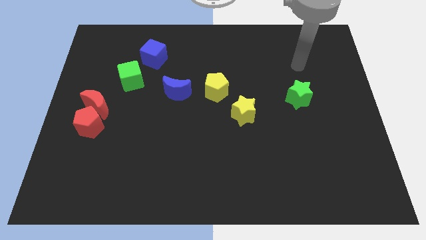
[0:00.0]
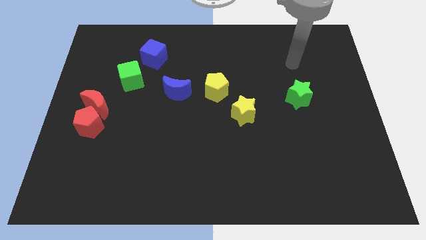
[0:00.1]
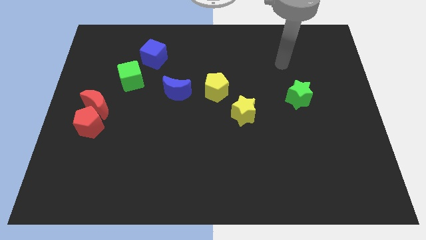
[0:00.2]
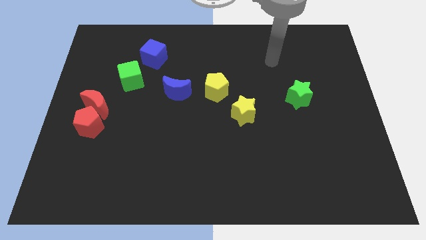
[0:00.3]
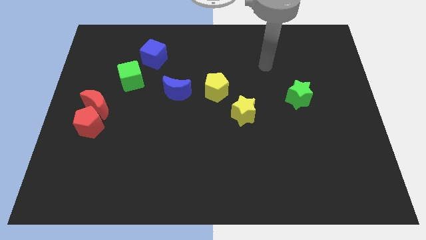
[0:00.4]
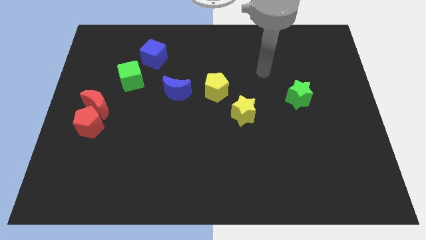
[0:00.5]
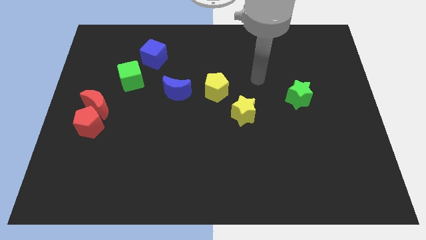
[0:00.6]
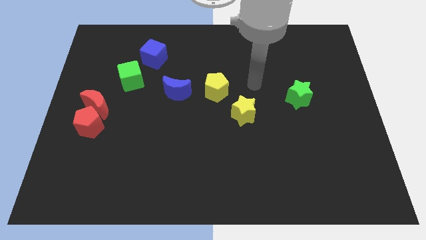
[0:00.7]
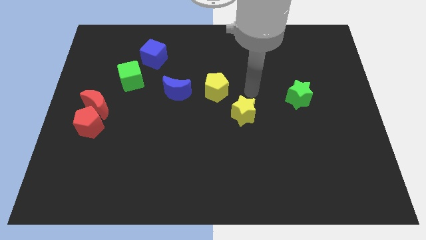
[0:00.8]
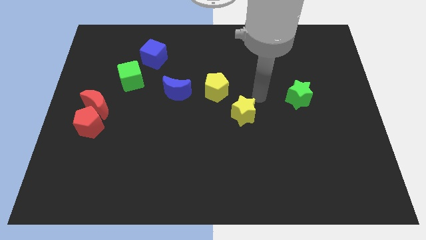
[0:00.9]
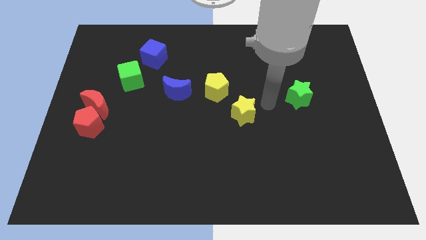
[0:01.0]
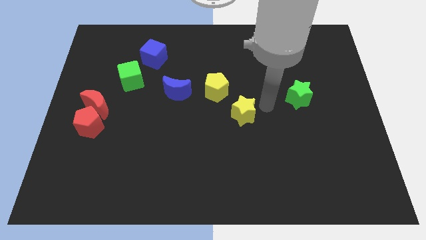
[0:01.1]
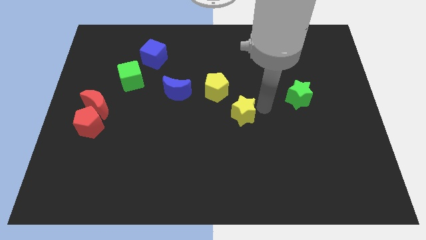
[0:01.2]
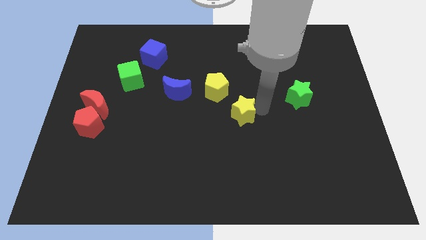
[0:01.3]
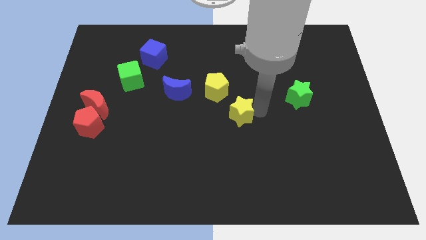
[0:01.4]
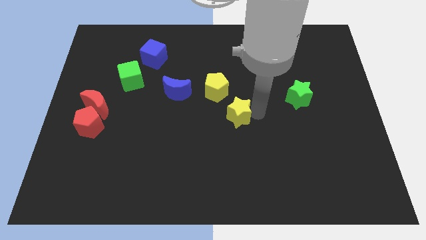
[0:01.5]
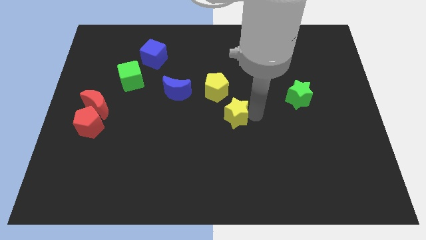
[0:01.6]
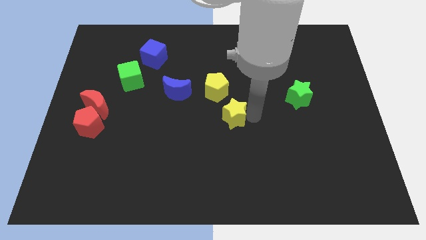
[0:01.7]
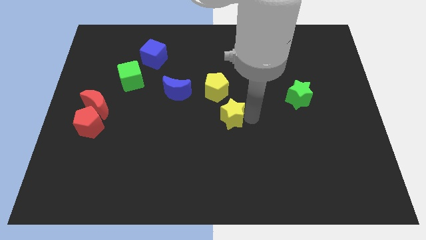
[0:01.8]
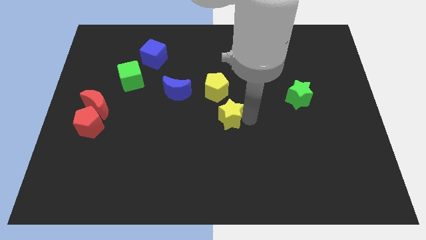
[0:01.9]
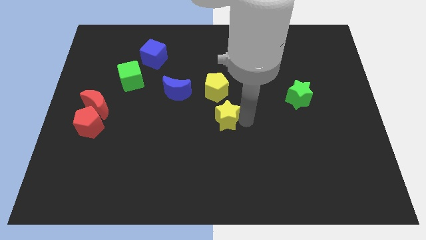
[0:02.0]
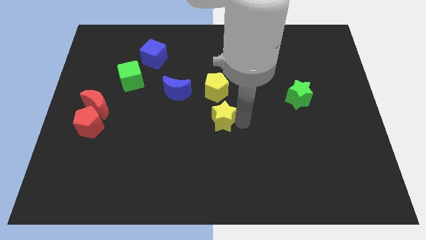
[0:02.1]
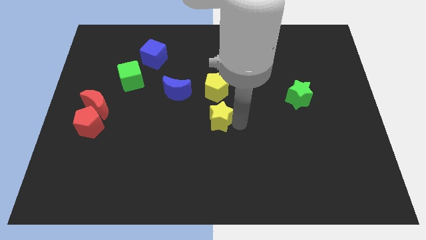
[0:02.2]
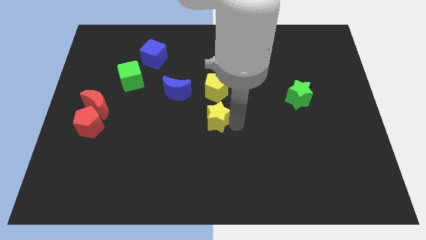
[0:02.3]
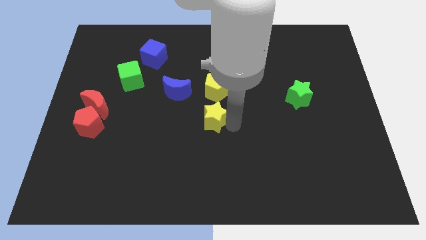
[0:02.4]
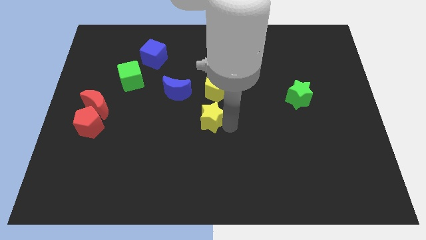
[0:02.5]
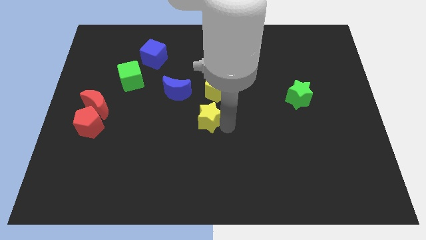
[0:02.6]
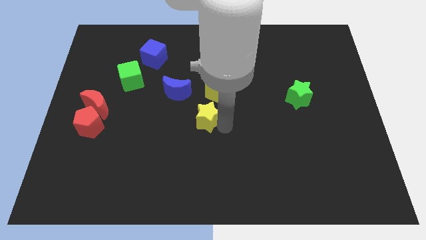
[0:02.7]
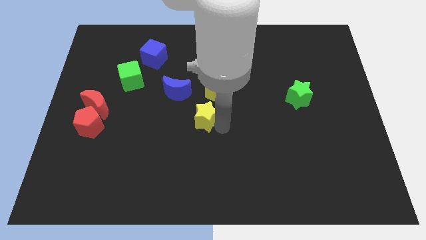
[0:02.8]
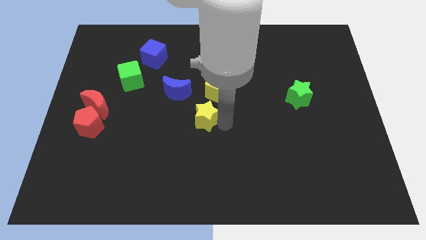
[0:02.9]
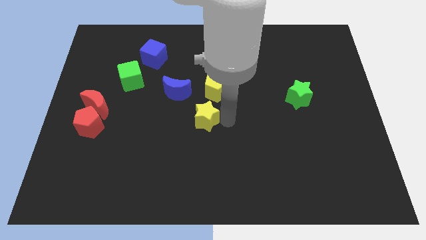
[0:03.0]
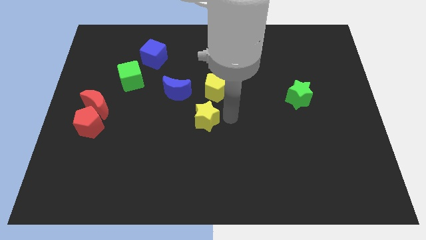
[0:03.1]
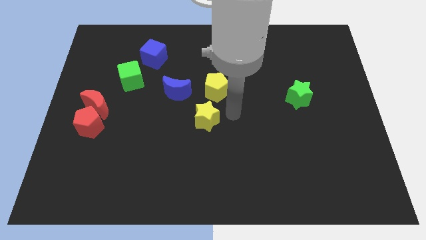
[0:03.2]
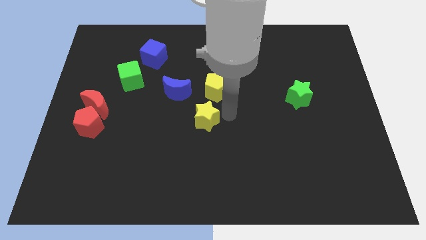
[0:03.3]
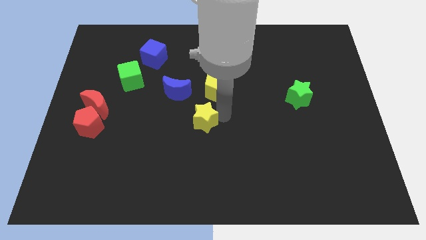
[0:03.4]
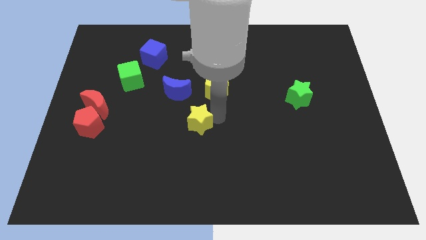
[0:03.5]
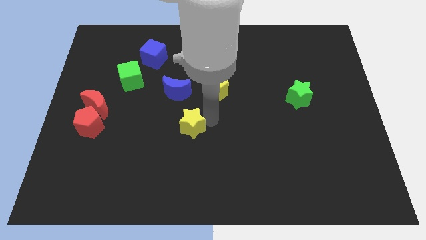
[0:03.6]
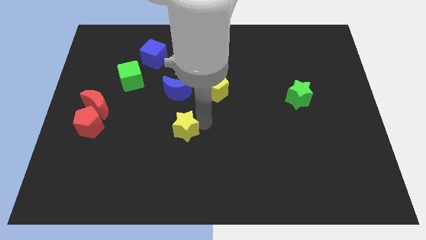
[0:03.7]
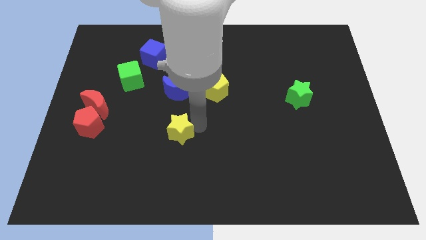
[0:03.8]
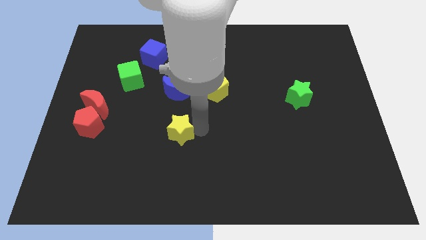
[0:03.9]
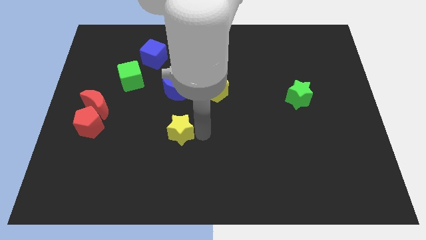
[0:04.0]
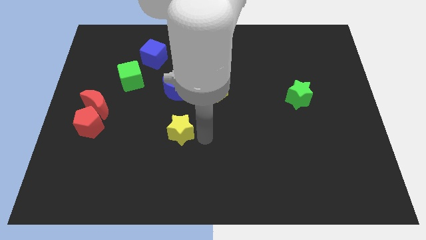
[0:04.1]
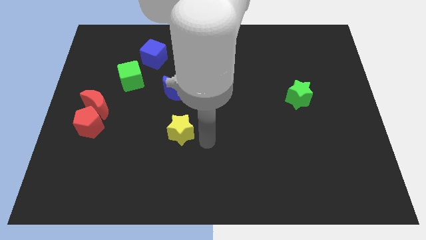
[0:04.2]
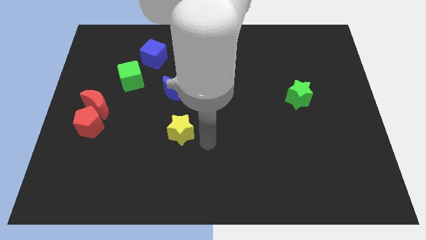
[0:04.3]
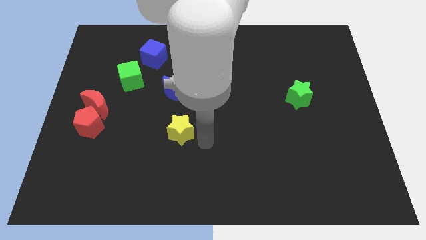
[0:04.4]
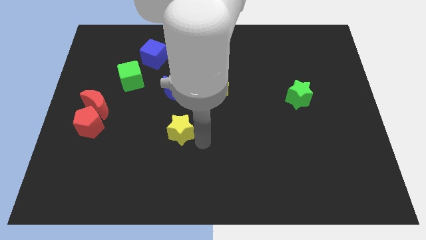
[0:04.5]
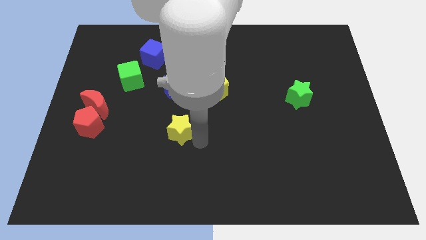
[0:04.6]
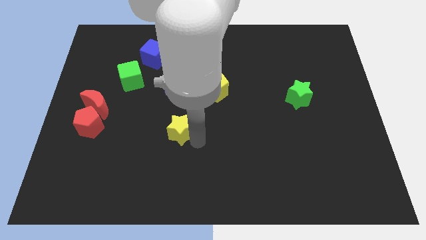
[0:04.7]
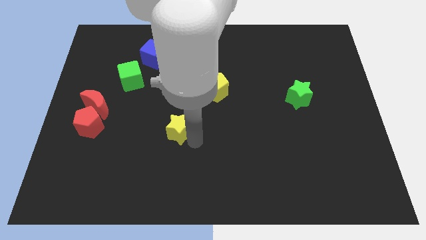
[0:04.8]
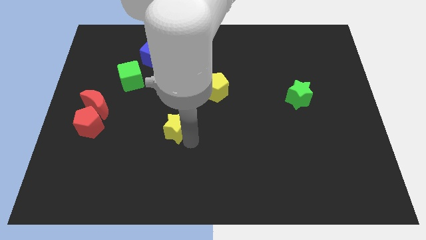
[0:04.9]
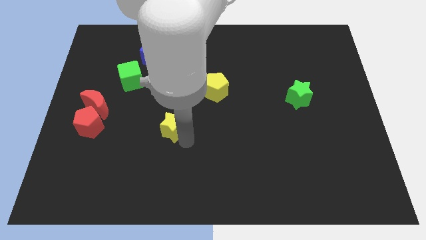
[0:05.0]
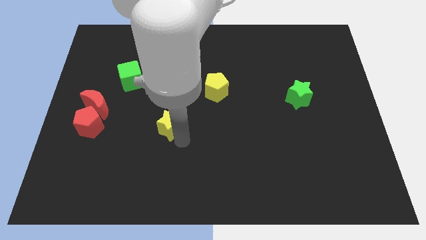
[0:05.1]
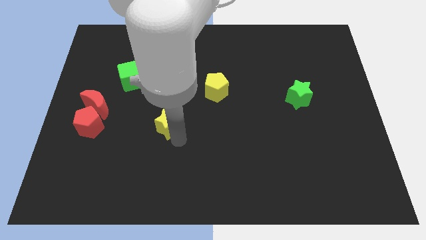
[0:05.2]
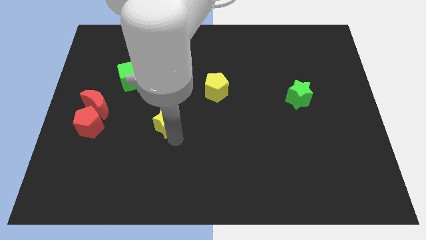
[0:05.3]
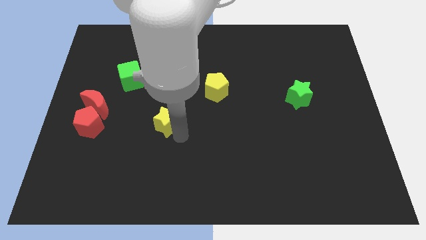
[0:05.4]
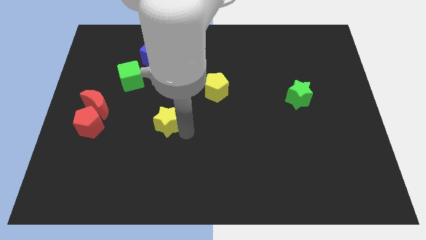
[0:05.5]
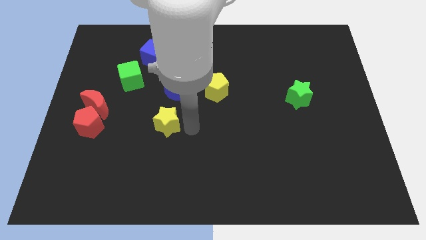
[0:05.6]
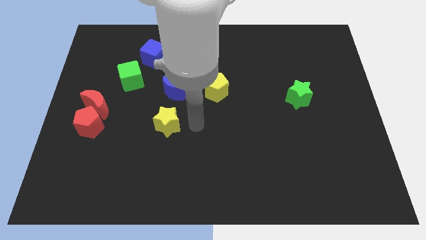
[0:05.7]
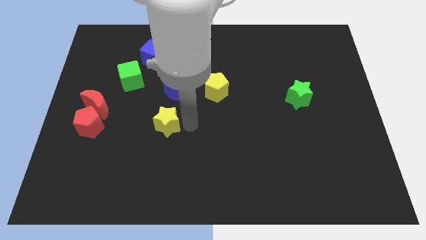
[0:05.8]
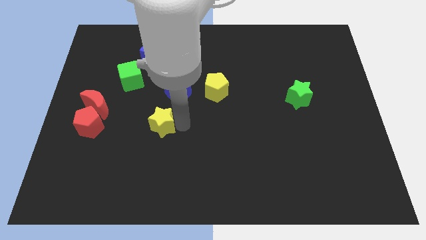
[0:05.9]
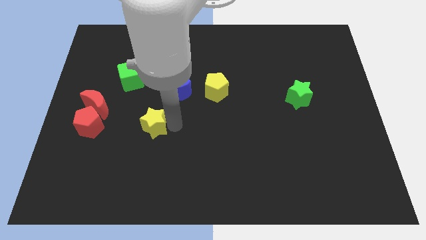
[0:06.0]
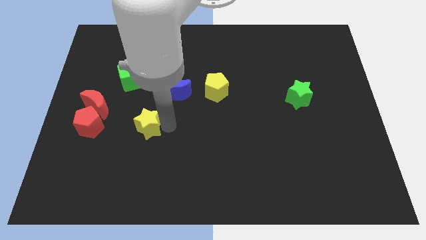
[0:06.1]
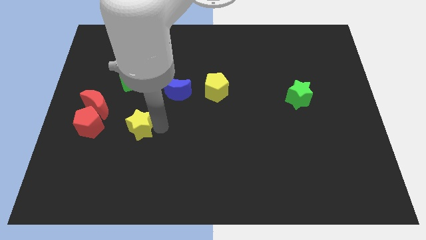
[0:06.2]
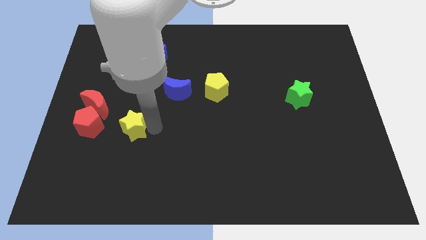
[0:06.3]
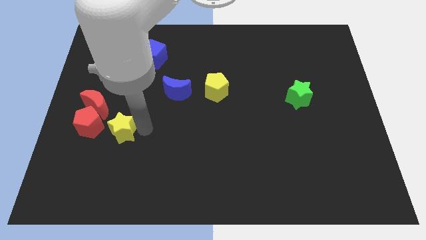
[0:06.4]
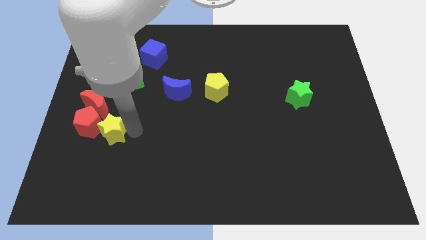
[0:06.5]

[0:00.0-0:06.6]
move the yellow star towards the red pentagon

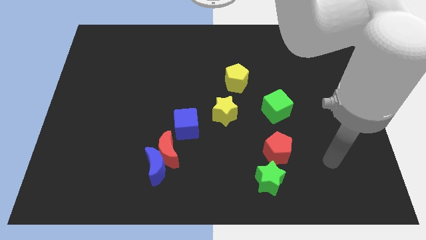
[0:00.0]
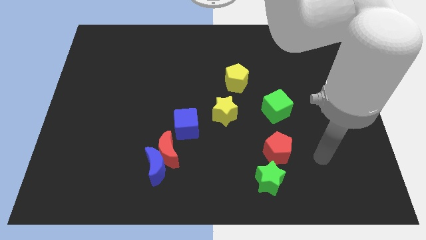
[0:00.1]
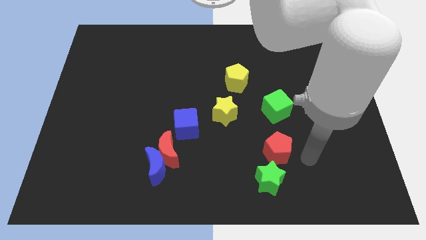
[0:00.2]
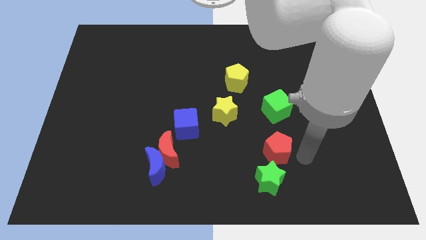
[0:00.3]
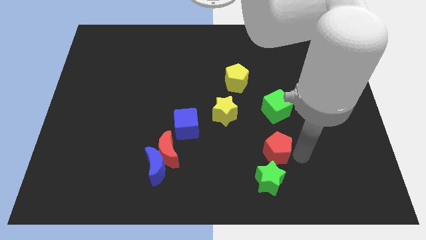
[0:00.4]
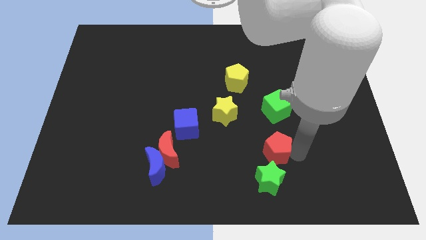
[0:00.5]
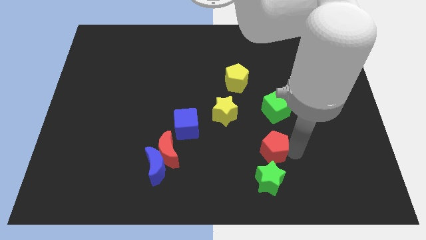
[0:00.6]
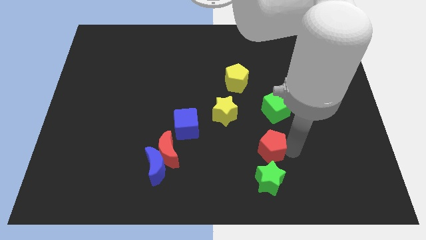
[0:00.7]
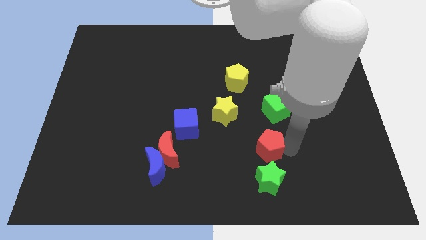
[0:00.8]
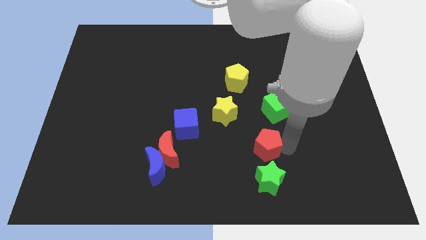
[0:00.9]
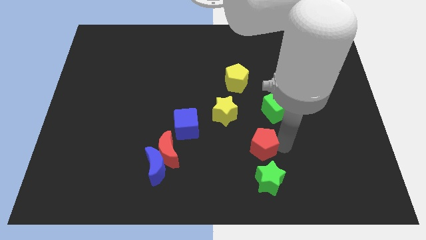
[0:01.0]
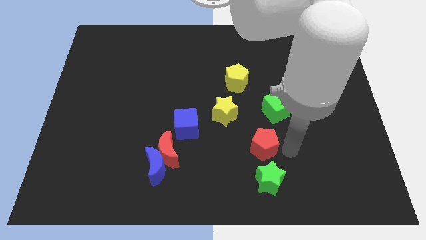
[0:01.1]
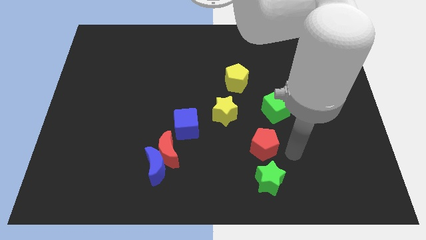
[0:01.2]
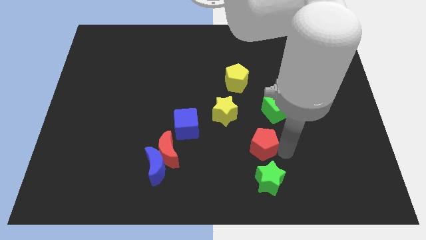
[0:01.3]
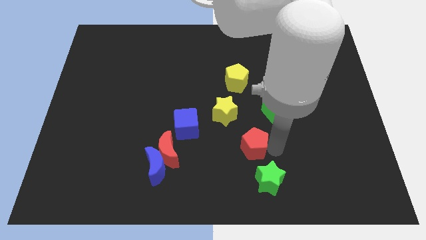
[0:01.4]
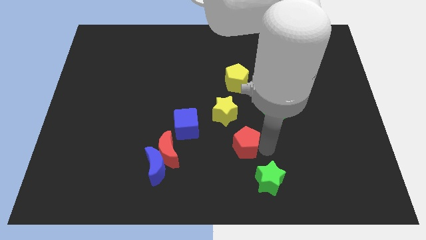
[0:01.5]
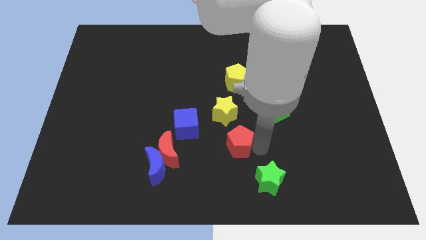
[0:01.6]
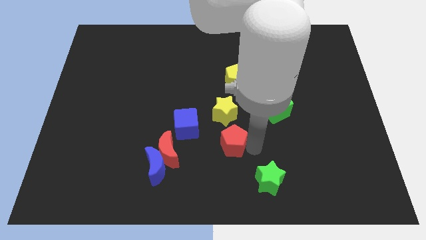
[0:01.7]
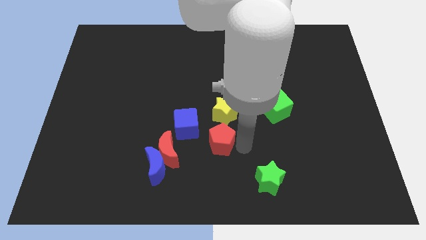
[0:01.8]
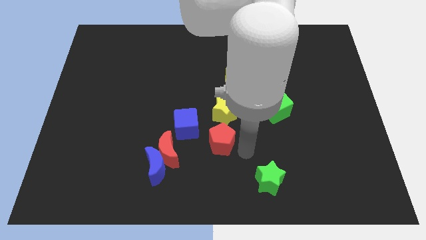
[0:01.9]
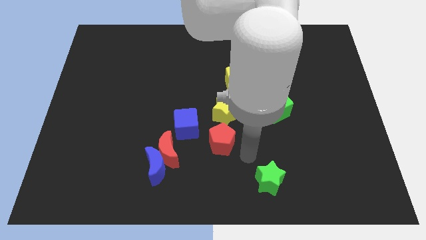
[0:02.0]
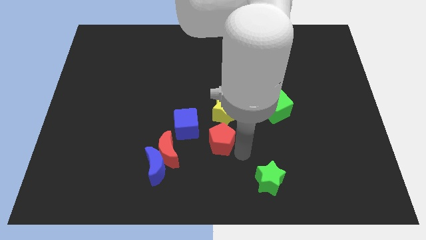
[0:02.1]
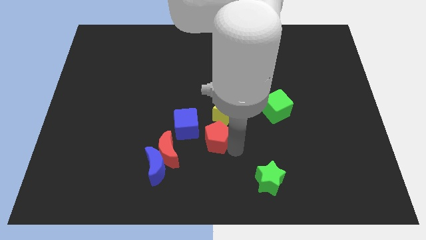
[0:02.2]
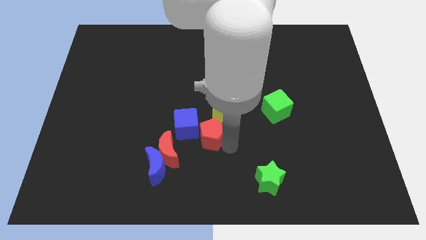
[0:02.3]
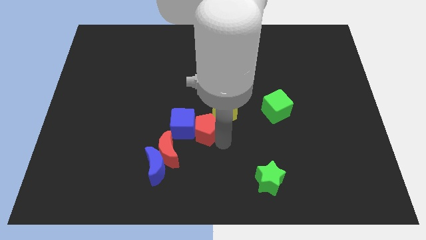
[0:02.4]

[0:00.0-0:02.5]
push the red pentagon close to the blue cube
